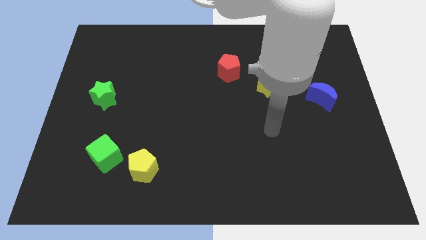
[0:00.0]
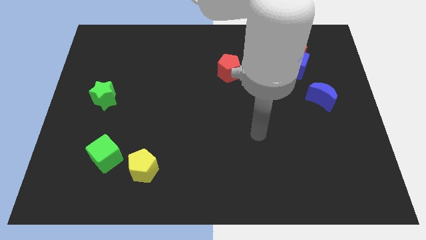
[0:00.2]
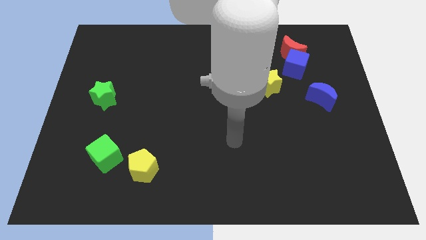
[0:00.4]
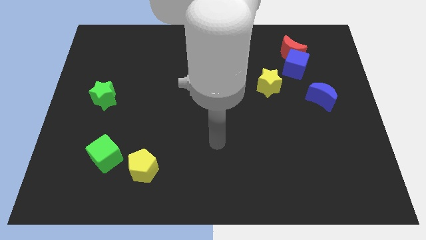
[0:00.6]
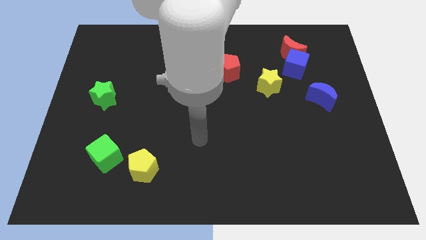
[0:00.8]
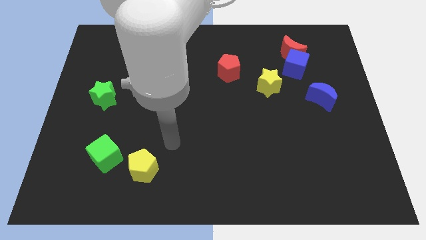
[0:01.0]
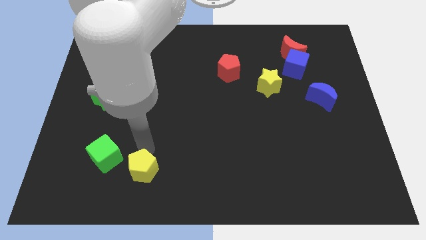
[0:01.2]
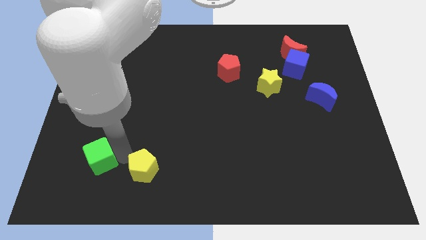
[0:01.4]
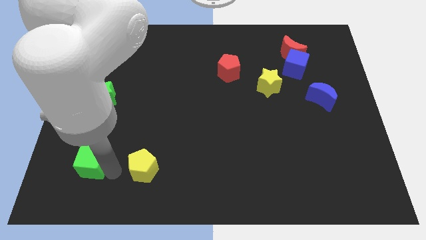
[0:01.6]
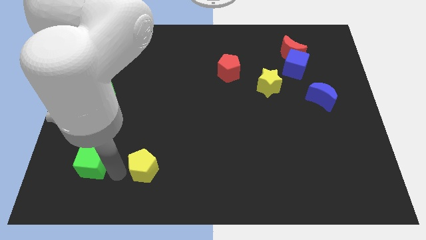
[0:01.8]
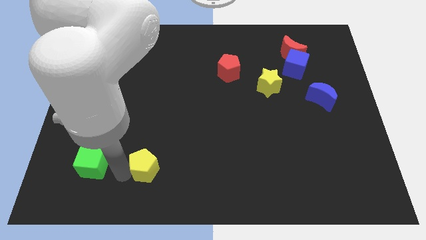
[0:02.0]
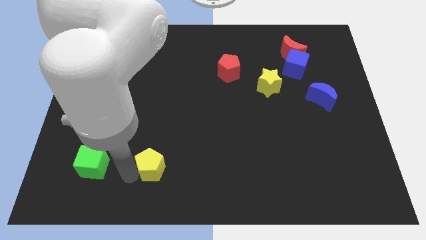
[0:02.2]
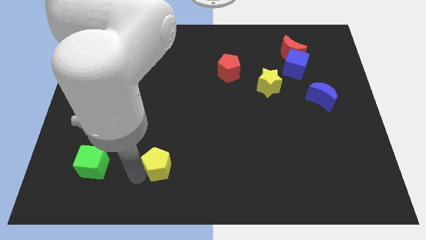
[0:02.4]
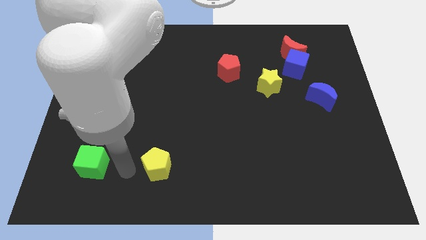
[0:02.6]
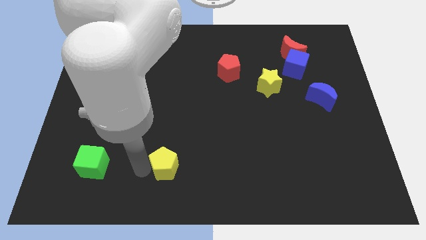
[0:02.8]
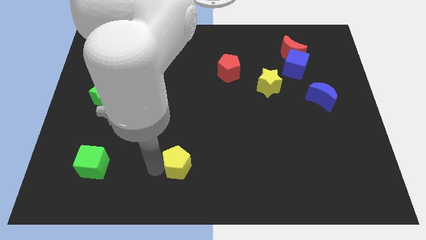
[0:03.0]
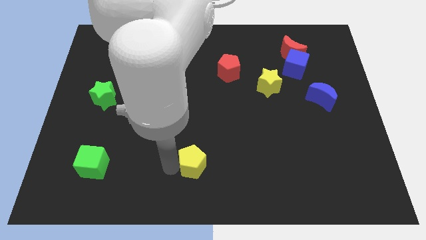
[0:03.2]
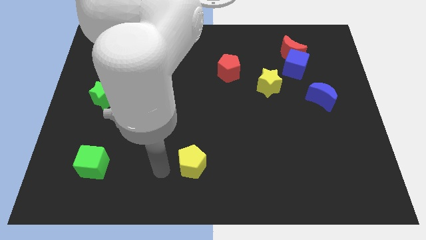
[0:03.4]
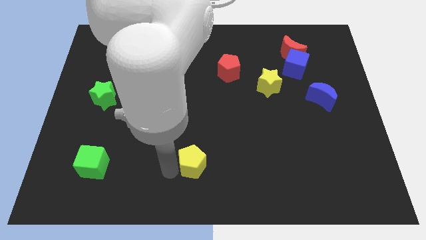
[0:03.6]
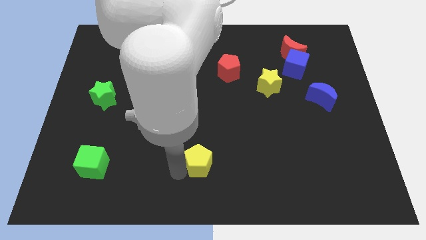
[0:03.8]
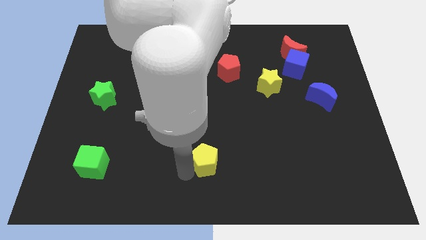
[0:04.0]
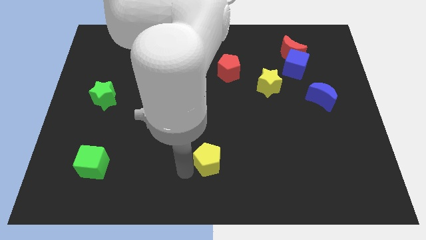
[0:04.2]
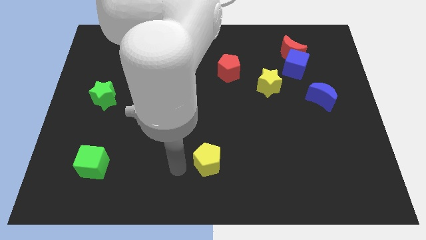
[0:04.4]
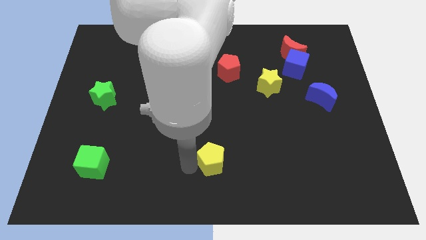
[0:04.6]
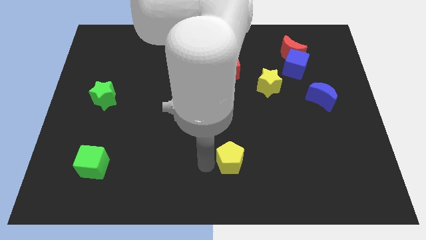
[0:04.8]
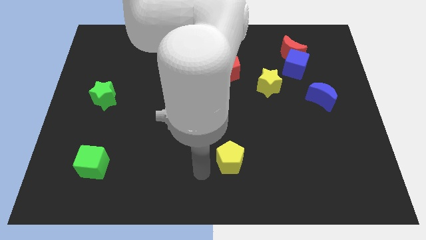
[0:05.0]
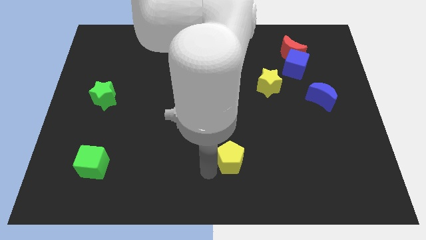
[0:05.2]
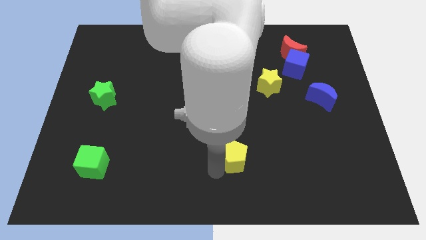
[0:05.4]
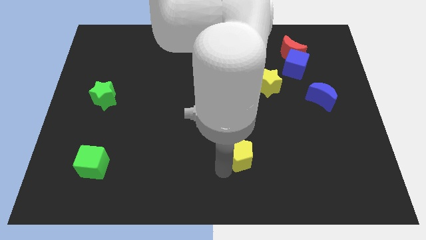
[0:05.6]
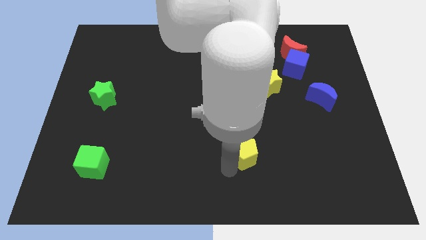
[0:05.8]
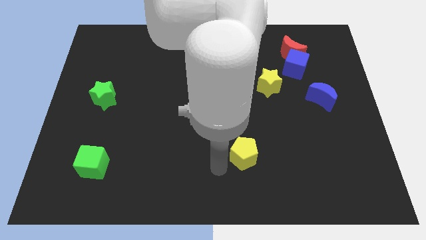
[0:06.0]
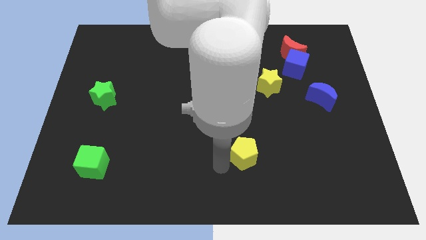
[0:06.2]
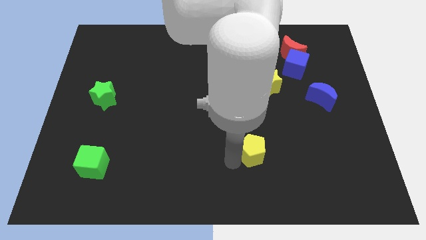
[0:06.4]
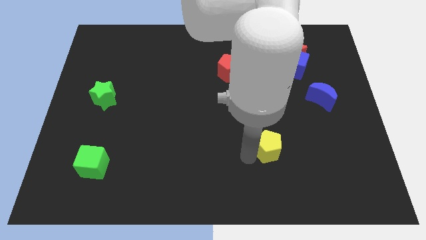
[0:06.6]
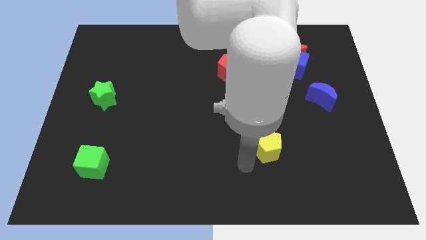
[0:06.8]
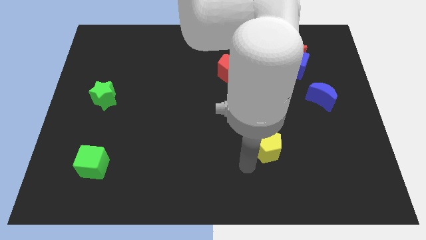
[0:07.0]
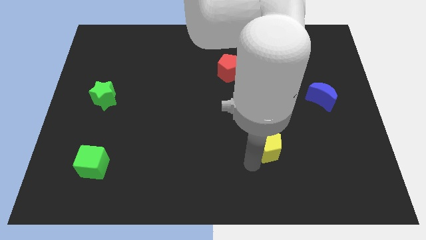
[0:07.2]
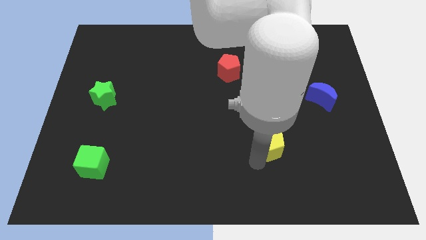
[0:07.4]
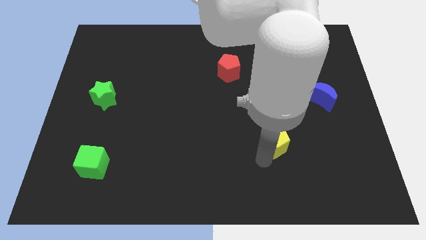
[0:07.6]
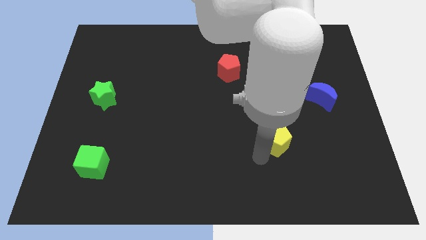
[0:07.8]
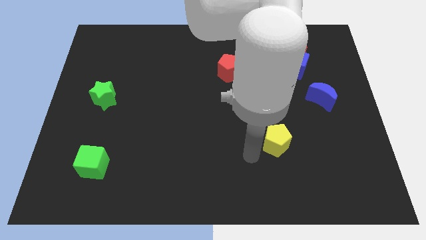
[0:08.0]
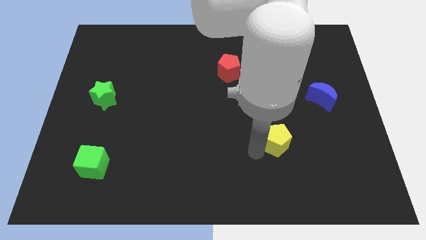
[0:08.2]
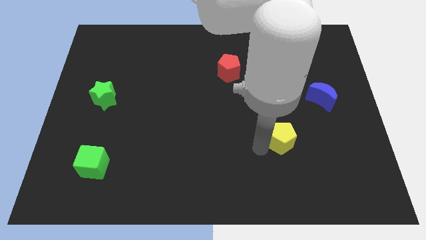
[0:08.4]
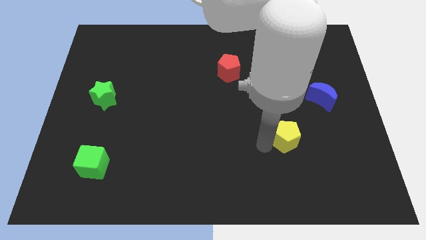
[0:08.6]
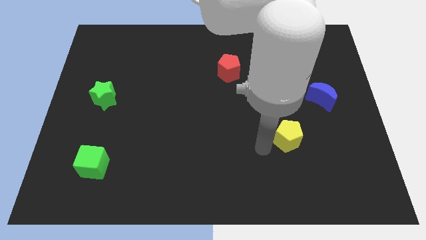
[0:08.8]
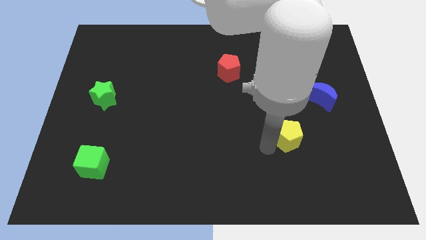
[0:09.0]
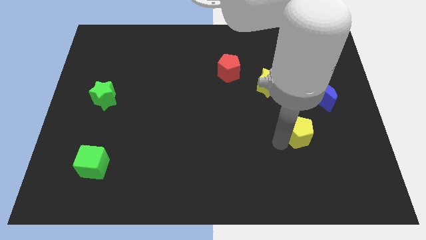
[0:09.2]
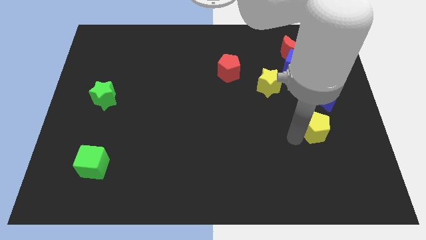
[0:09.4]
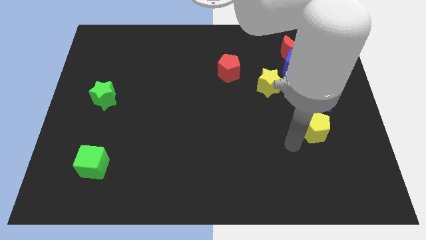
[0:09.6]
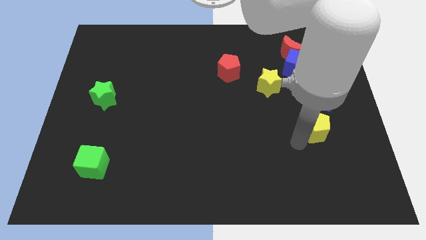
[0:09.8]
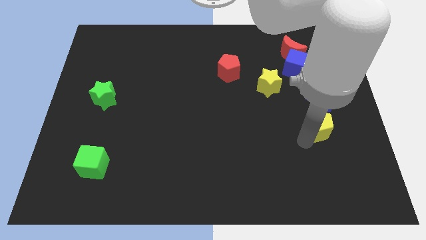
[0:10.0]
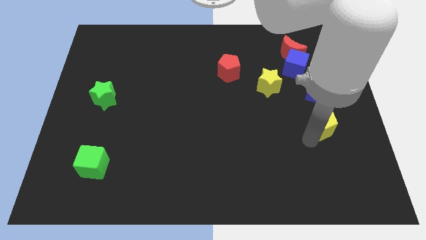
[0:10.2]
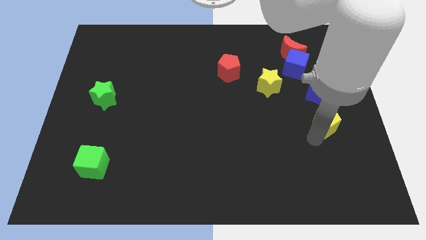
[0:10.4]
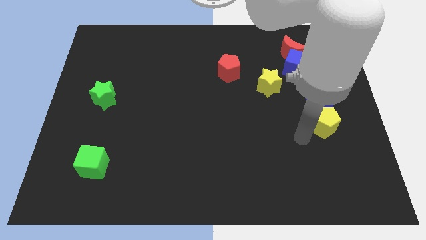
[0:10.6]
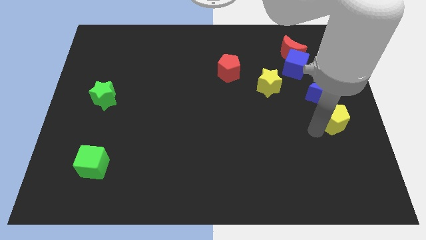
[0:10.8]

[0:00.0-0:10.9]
move the yellow pentagon to the right side

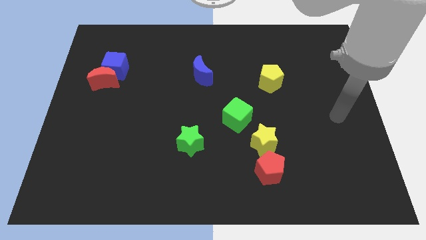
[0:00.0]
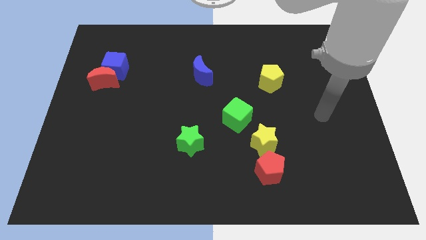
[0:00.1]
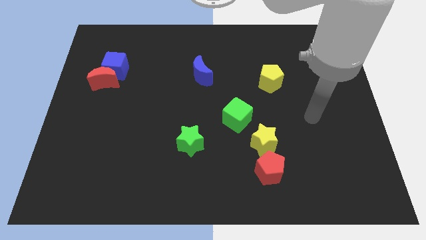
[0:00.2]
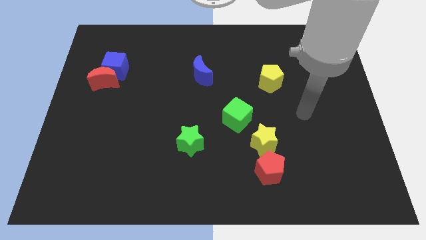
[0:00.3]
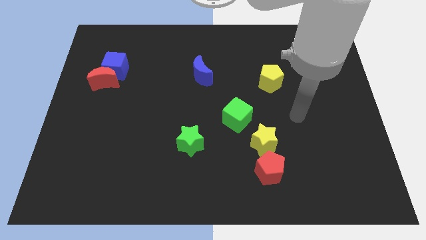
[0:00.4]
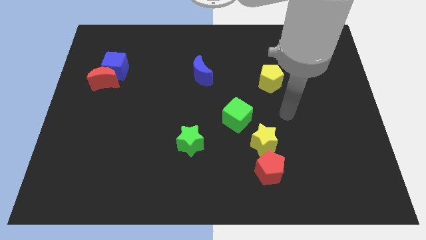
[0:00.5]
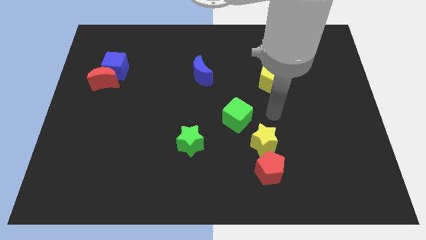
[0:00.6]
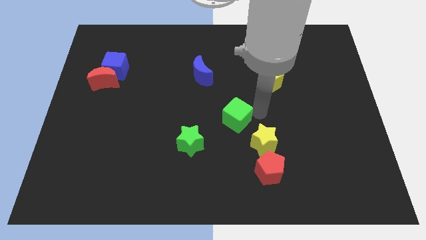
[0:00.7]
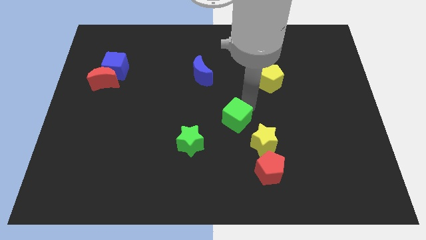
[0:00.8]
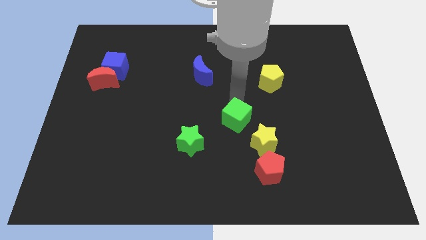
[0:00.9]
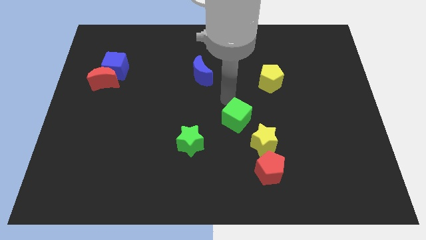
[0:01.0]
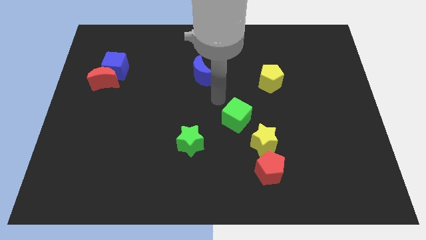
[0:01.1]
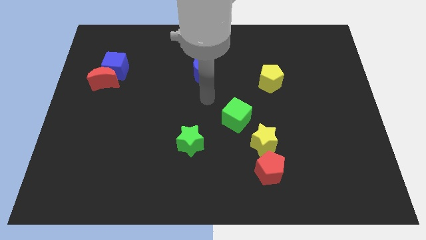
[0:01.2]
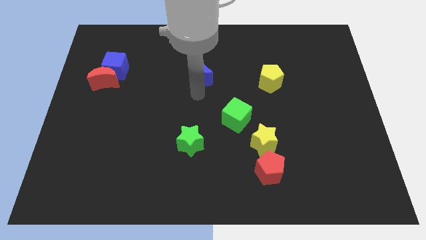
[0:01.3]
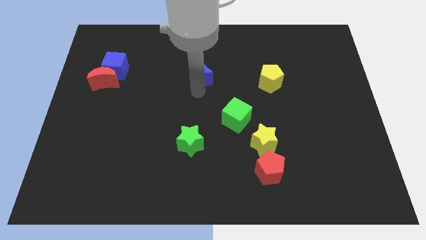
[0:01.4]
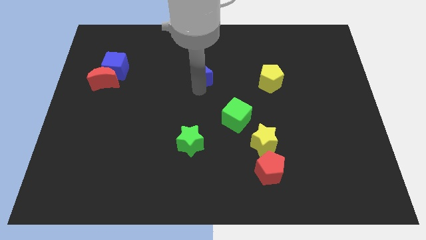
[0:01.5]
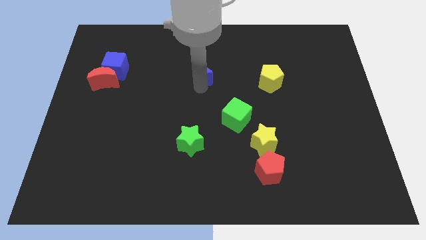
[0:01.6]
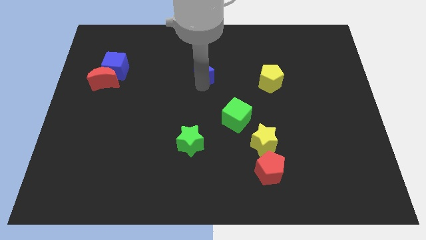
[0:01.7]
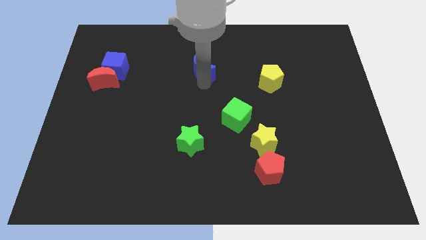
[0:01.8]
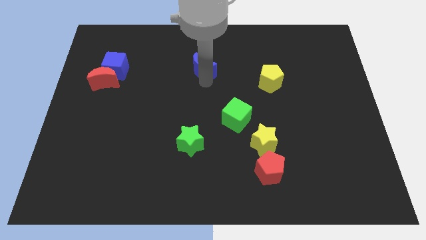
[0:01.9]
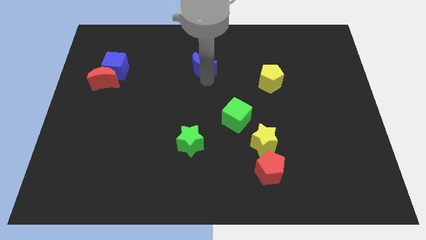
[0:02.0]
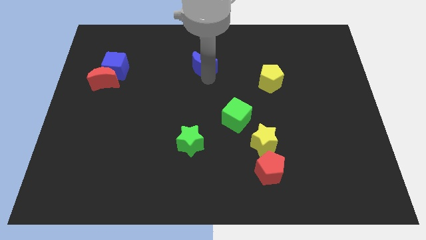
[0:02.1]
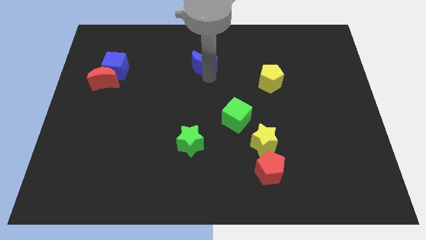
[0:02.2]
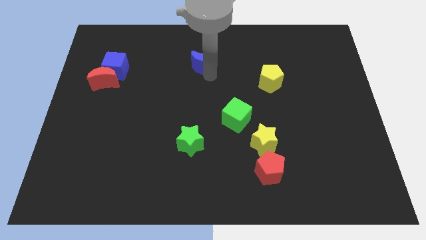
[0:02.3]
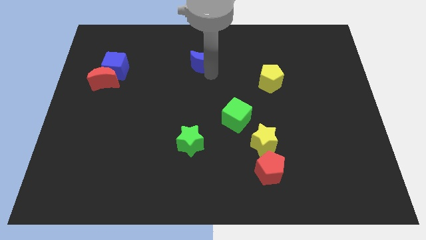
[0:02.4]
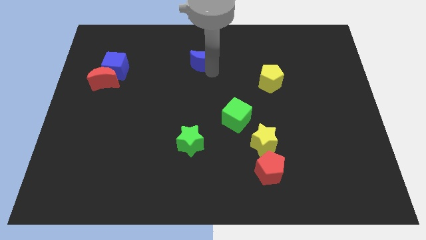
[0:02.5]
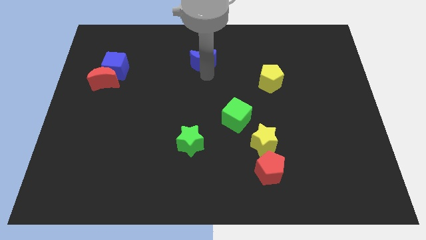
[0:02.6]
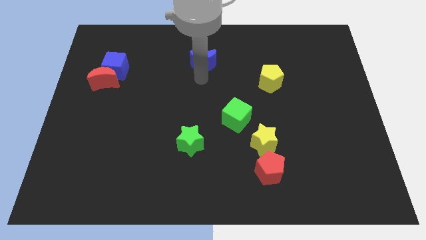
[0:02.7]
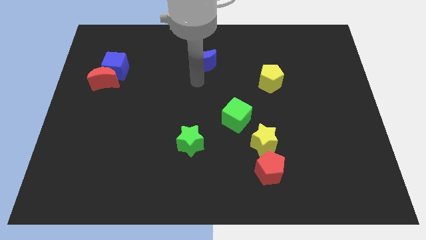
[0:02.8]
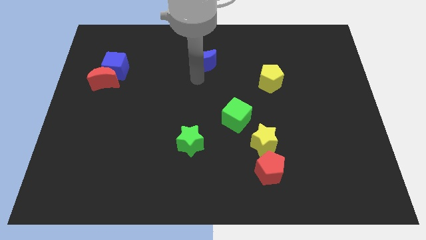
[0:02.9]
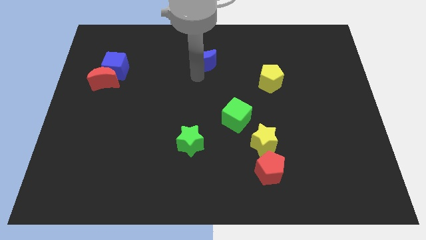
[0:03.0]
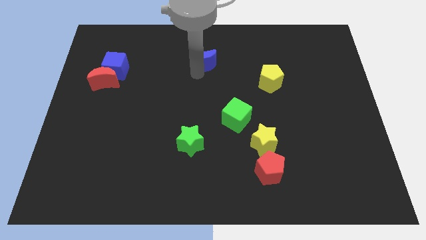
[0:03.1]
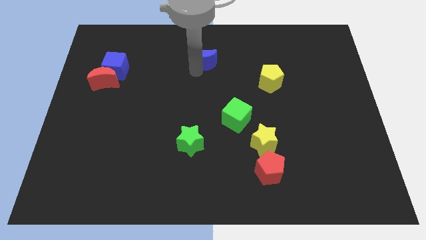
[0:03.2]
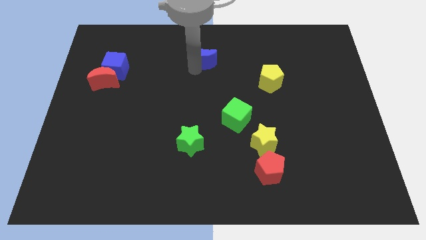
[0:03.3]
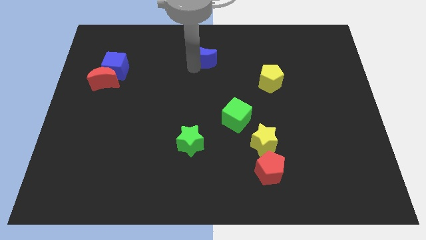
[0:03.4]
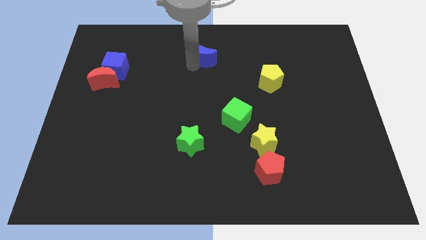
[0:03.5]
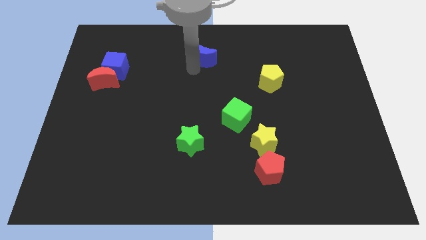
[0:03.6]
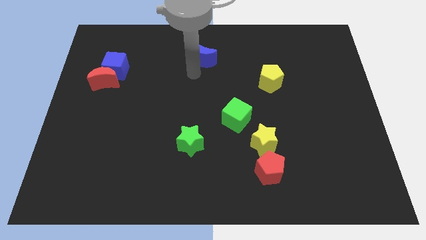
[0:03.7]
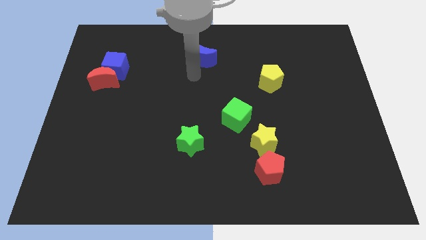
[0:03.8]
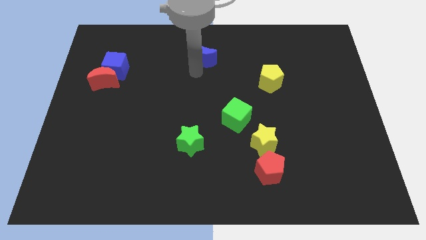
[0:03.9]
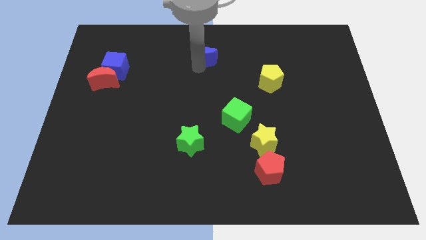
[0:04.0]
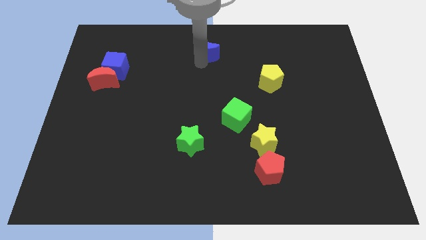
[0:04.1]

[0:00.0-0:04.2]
move the blue moon to the towards your base
